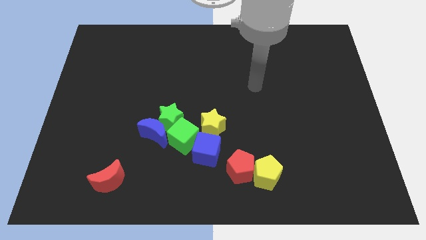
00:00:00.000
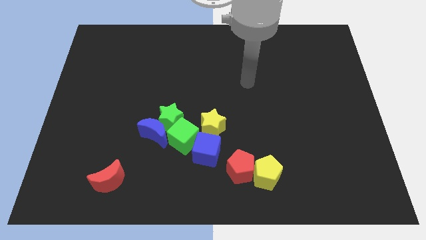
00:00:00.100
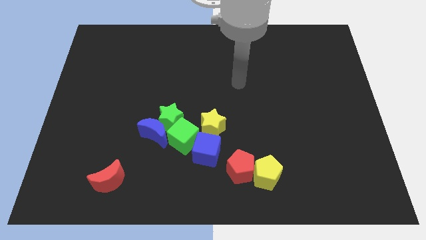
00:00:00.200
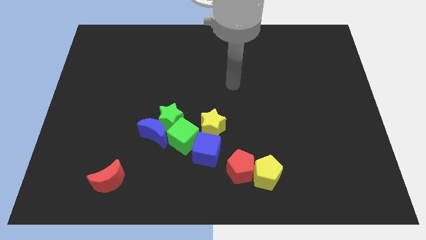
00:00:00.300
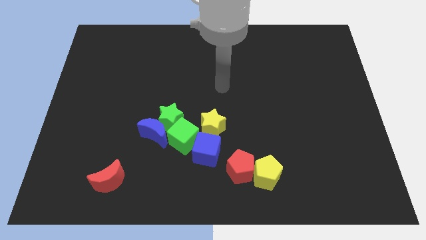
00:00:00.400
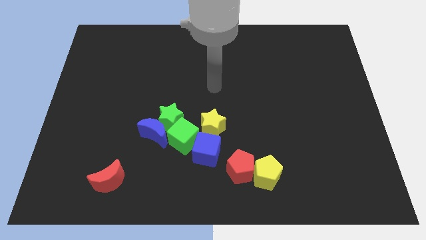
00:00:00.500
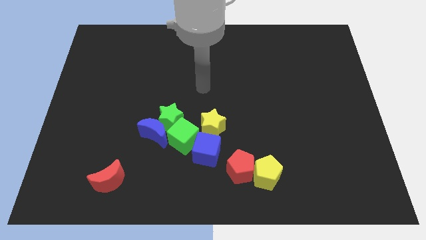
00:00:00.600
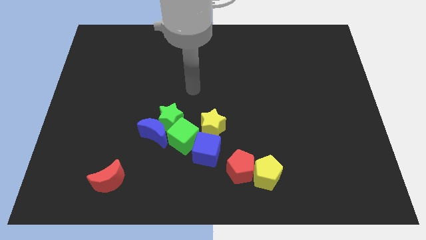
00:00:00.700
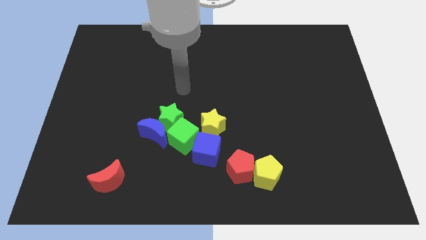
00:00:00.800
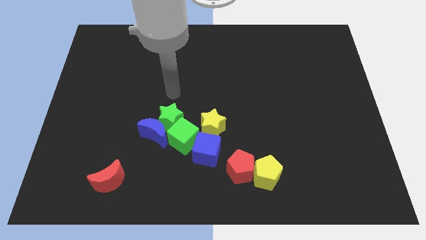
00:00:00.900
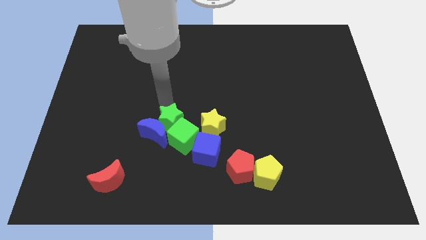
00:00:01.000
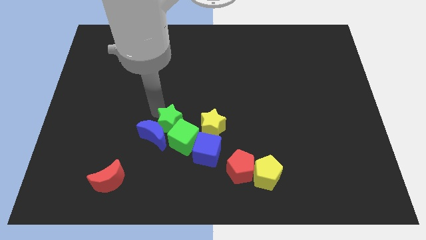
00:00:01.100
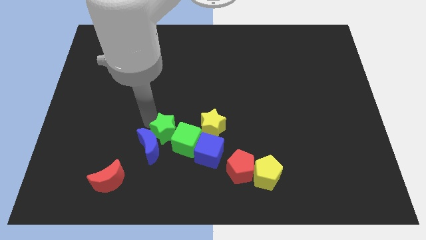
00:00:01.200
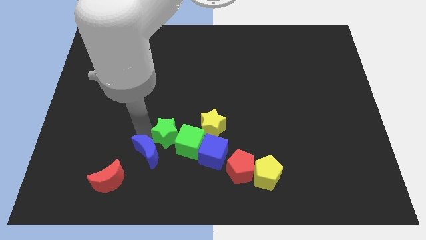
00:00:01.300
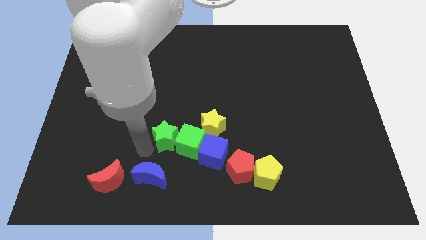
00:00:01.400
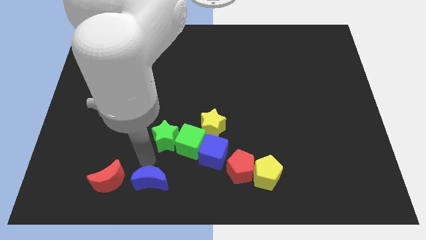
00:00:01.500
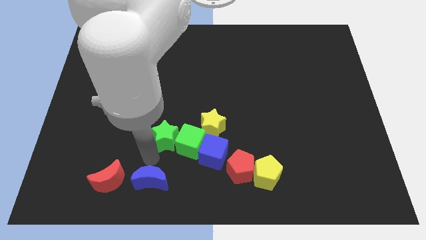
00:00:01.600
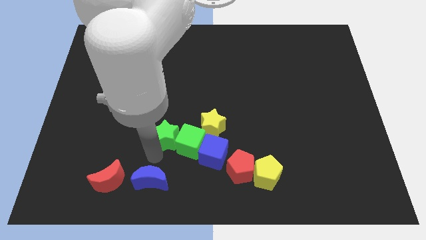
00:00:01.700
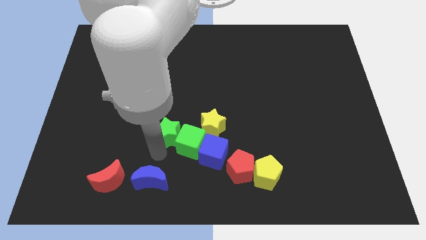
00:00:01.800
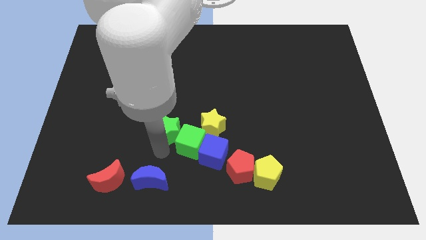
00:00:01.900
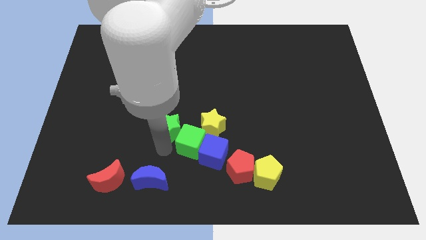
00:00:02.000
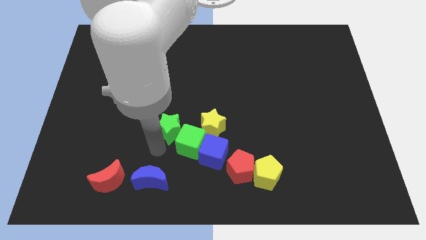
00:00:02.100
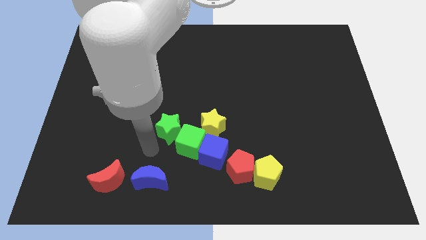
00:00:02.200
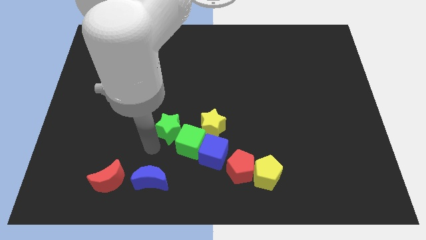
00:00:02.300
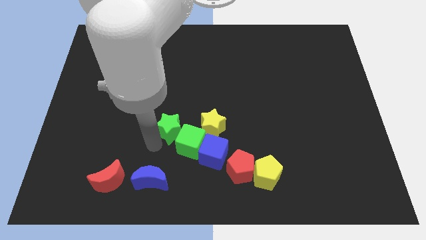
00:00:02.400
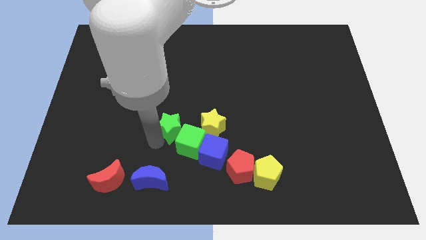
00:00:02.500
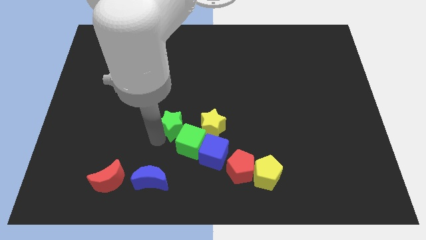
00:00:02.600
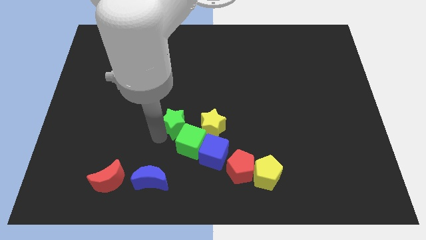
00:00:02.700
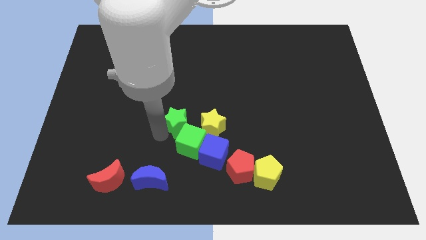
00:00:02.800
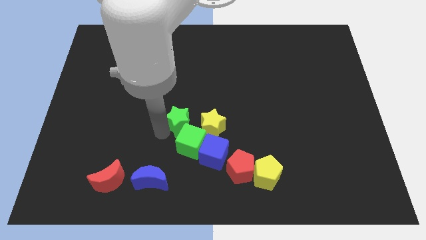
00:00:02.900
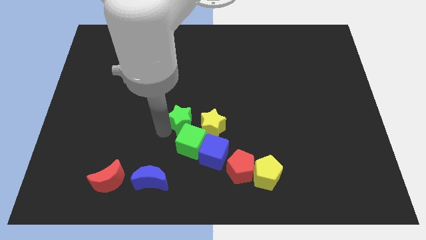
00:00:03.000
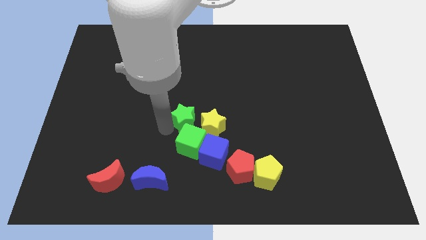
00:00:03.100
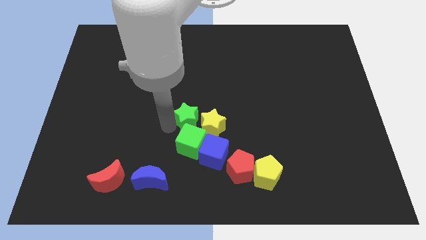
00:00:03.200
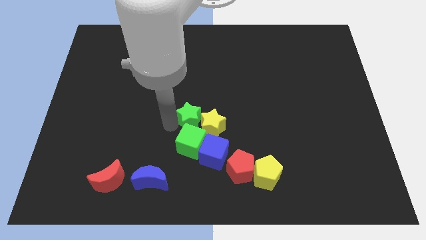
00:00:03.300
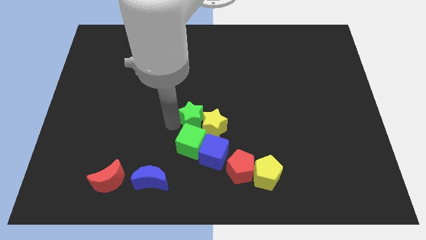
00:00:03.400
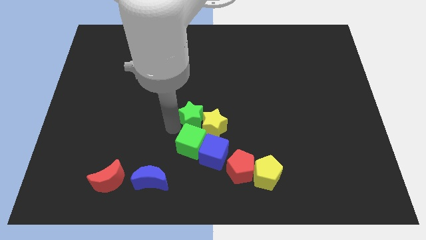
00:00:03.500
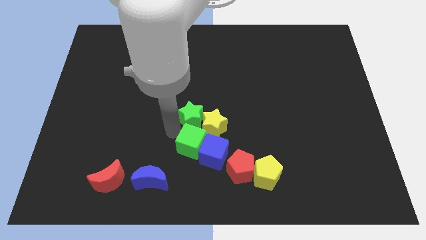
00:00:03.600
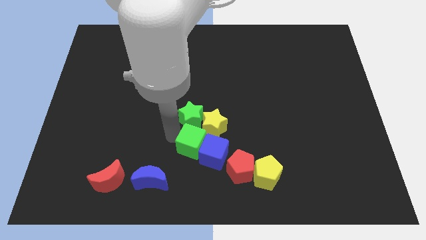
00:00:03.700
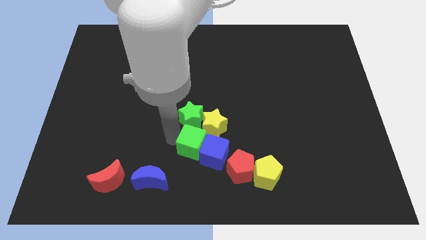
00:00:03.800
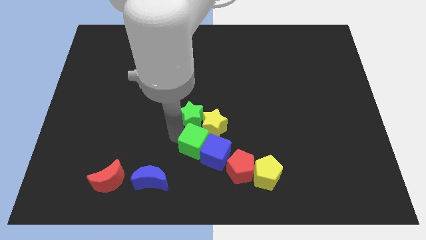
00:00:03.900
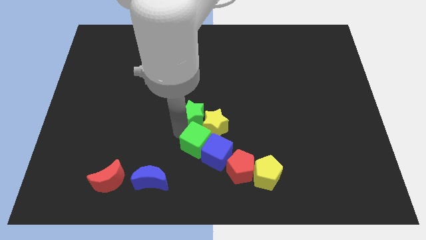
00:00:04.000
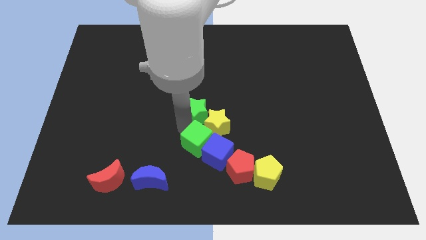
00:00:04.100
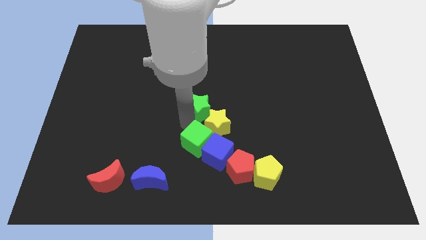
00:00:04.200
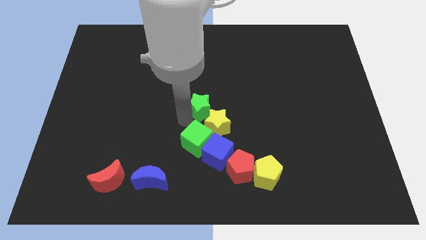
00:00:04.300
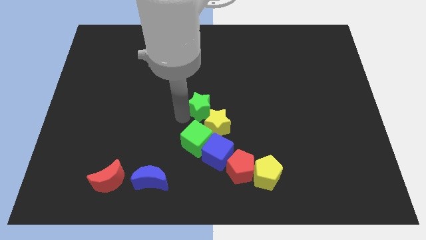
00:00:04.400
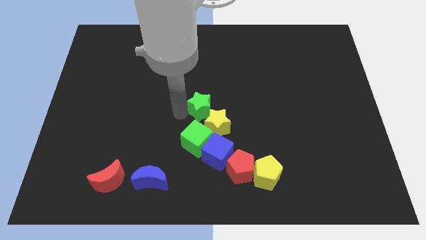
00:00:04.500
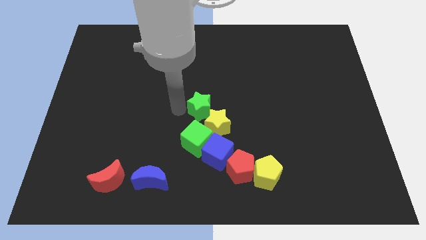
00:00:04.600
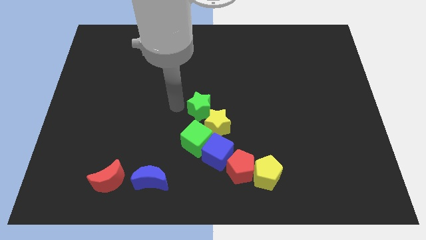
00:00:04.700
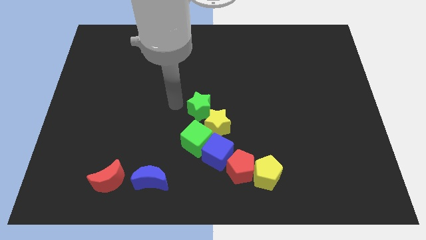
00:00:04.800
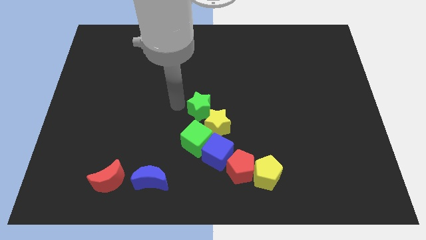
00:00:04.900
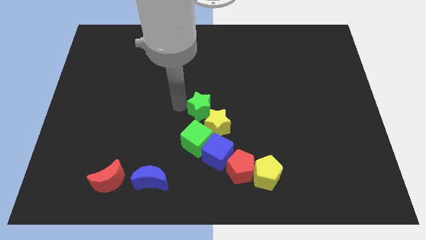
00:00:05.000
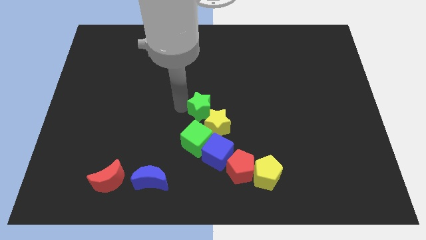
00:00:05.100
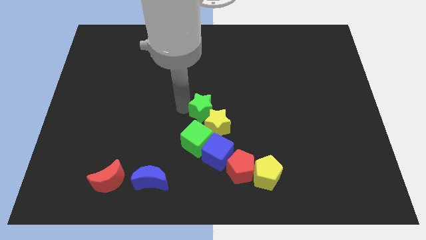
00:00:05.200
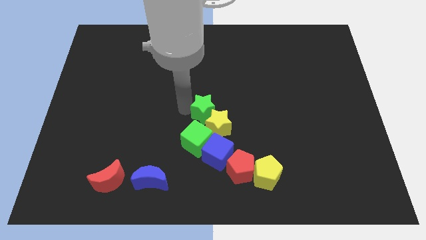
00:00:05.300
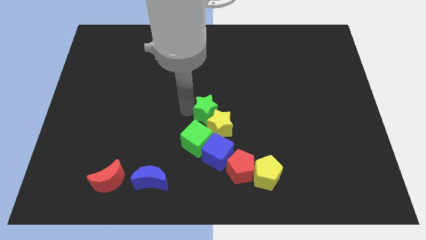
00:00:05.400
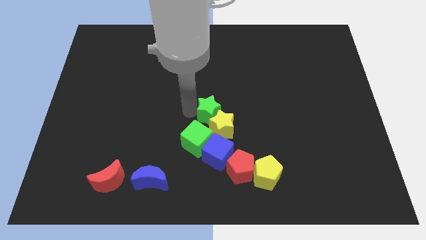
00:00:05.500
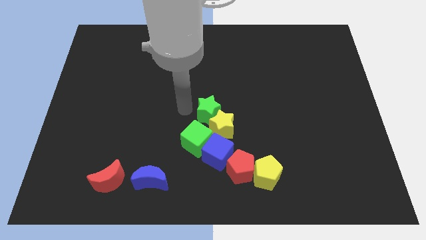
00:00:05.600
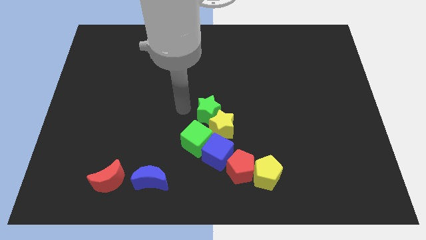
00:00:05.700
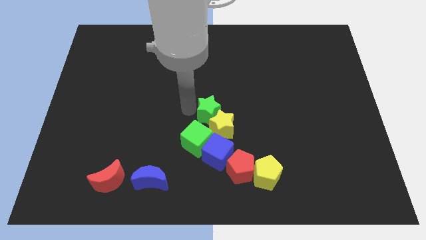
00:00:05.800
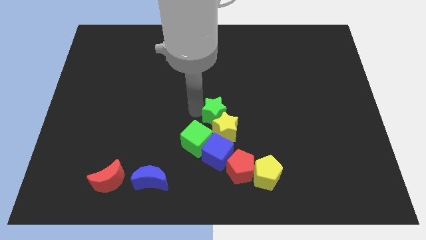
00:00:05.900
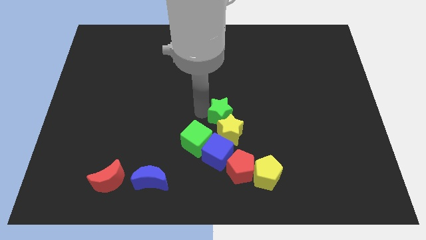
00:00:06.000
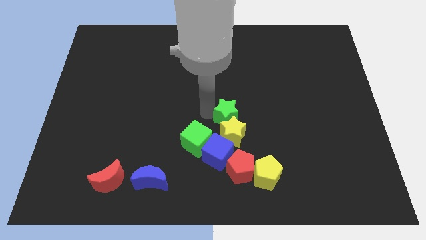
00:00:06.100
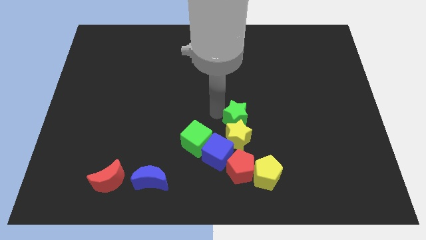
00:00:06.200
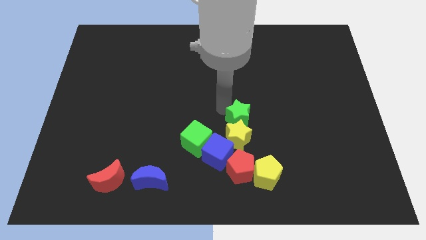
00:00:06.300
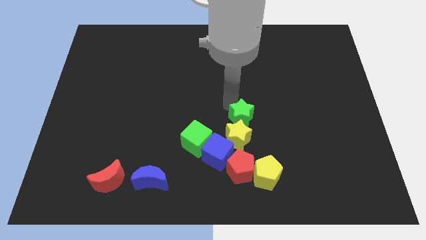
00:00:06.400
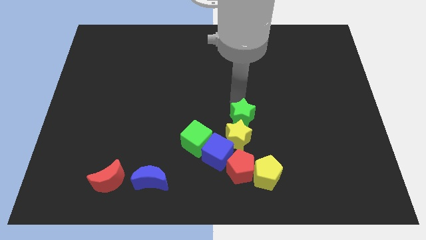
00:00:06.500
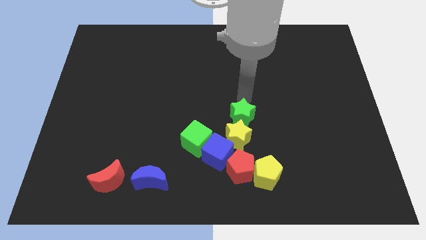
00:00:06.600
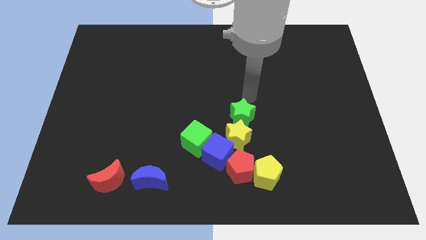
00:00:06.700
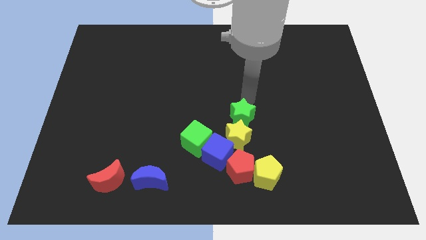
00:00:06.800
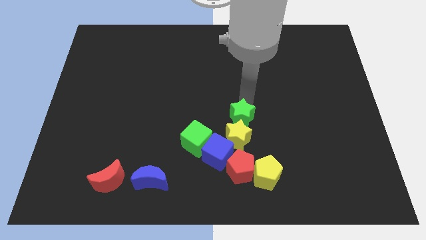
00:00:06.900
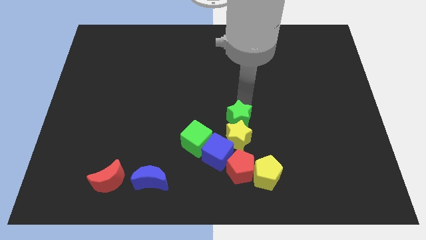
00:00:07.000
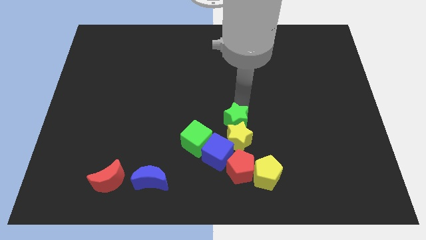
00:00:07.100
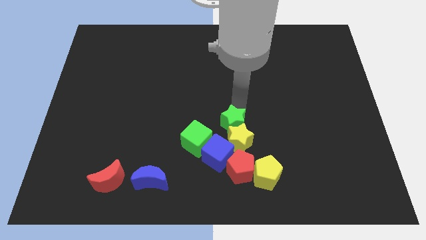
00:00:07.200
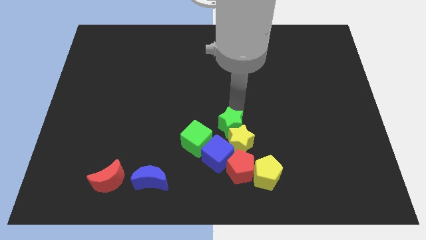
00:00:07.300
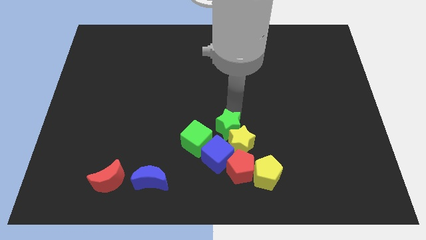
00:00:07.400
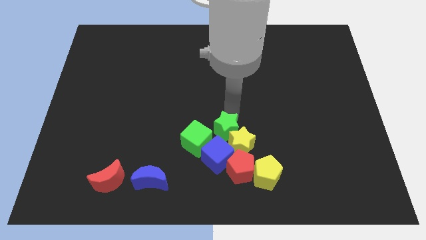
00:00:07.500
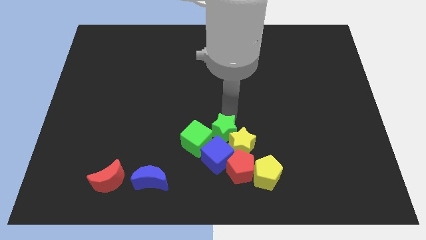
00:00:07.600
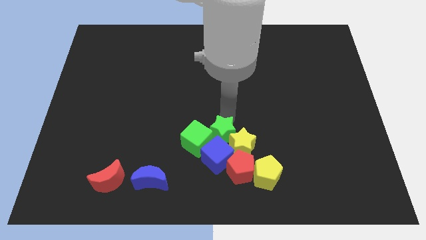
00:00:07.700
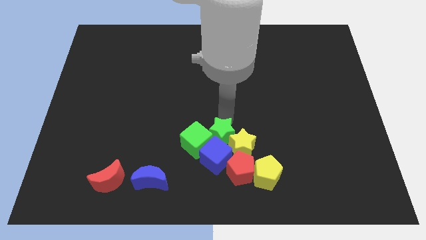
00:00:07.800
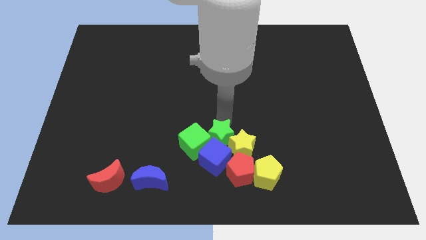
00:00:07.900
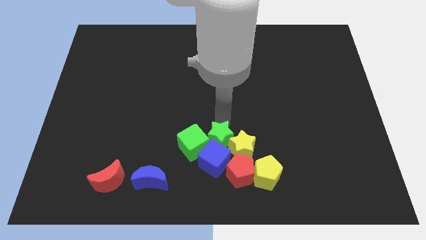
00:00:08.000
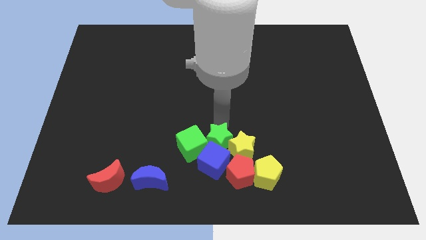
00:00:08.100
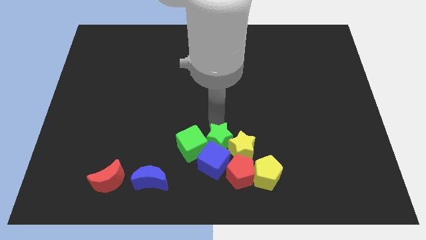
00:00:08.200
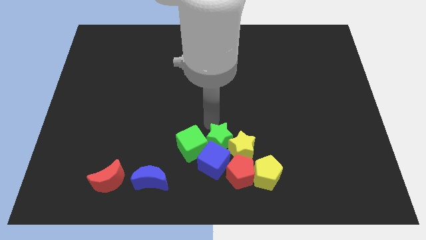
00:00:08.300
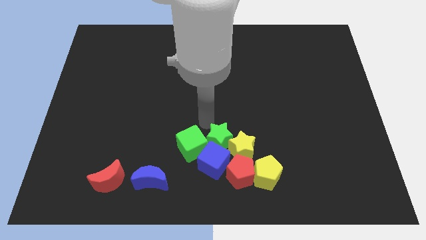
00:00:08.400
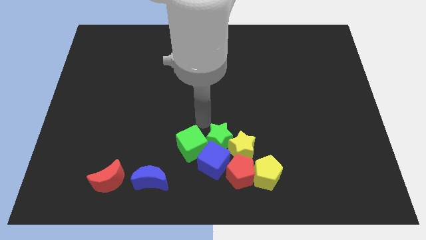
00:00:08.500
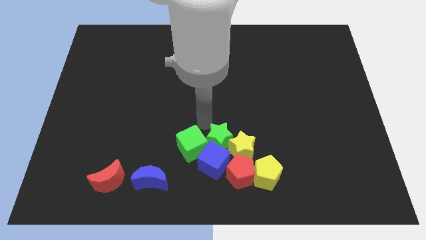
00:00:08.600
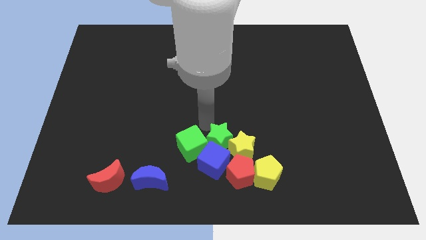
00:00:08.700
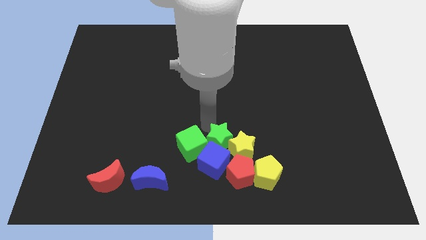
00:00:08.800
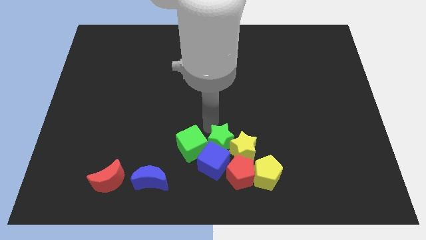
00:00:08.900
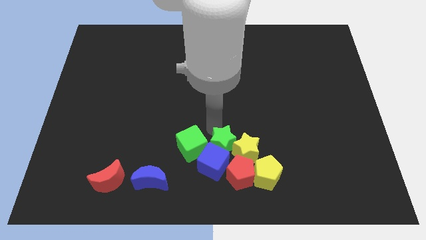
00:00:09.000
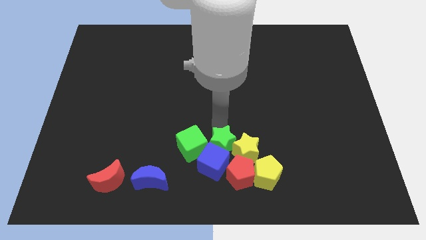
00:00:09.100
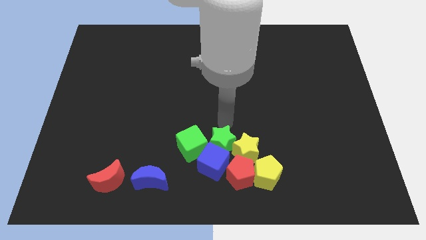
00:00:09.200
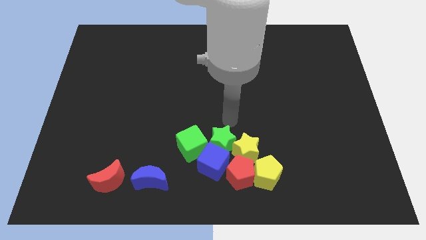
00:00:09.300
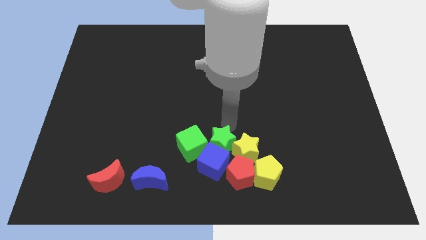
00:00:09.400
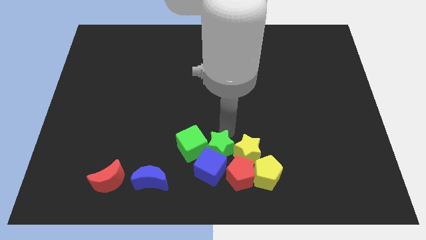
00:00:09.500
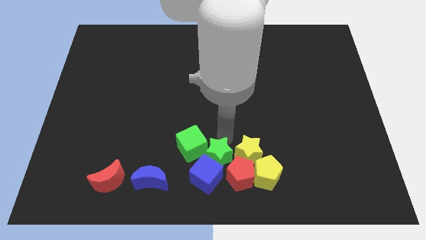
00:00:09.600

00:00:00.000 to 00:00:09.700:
slide the green star to the bottom
